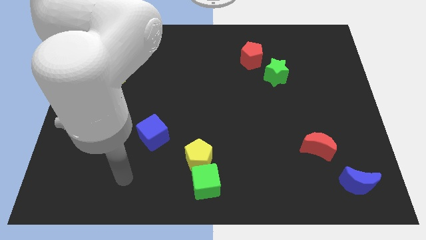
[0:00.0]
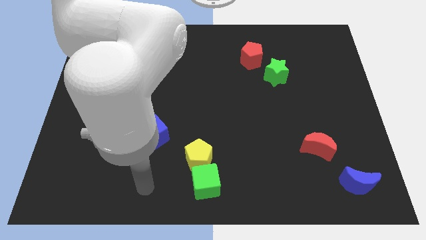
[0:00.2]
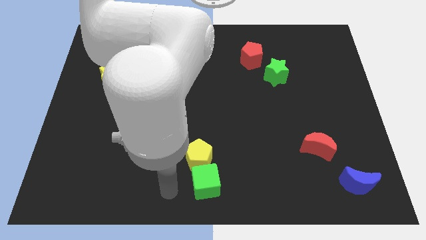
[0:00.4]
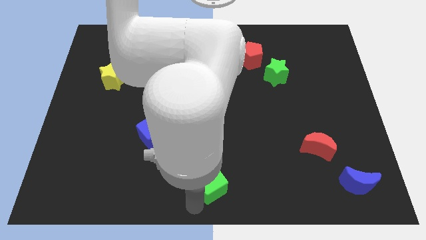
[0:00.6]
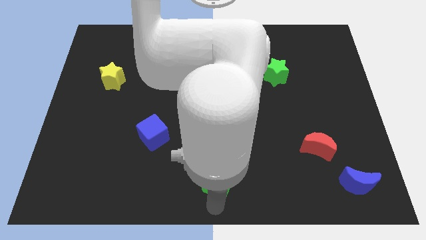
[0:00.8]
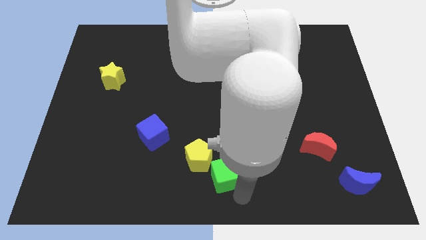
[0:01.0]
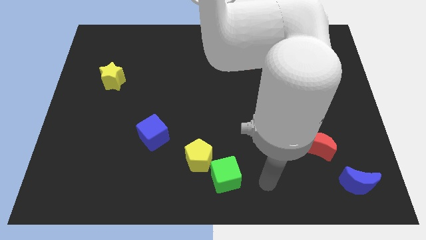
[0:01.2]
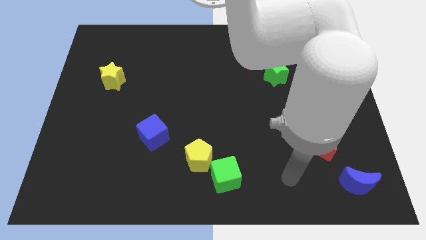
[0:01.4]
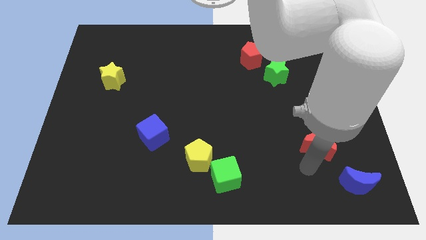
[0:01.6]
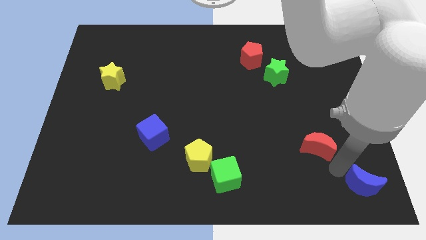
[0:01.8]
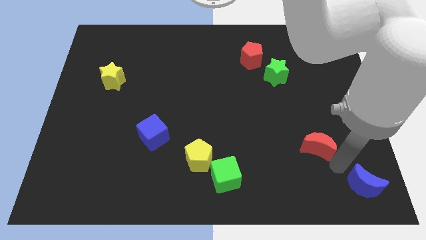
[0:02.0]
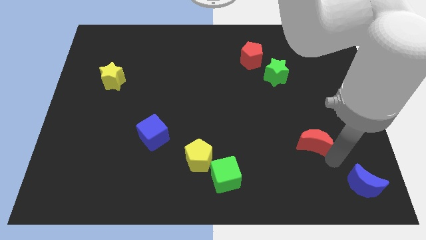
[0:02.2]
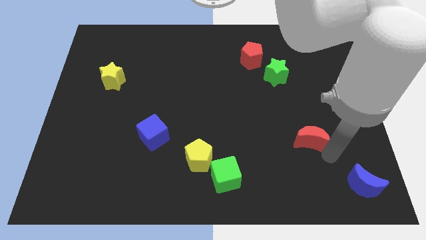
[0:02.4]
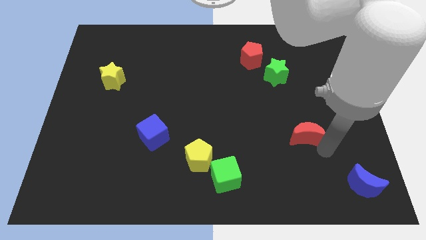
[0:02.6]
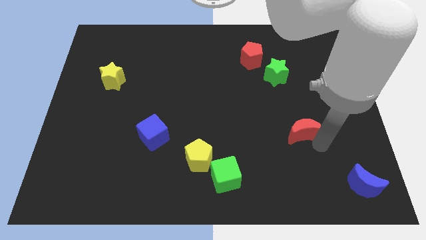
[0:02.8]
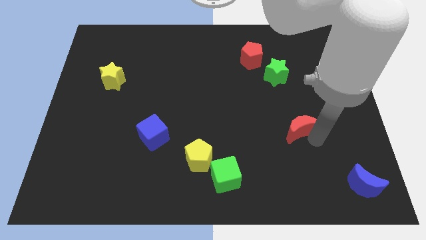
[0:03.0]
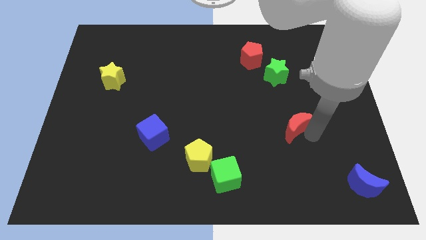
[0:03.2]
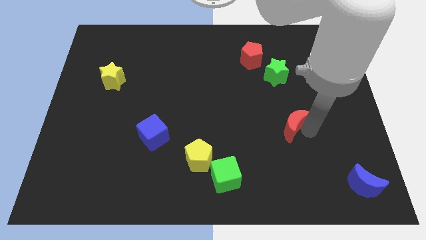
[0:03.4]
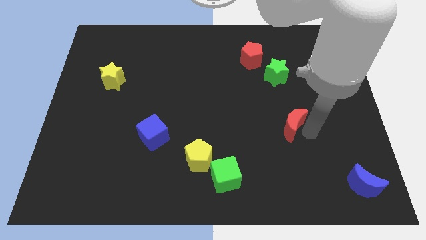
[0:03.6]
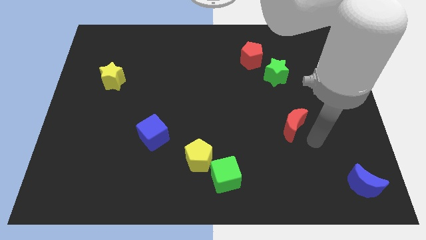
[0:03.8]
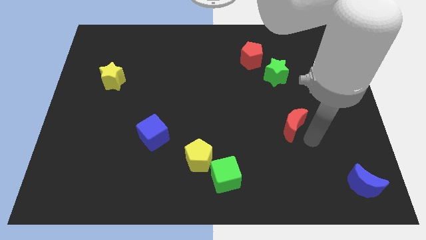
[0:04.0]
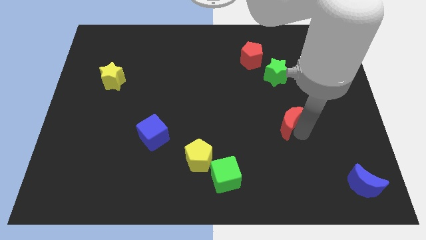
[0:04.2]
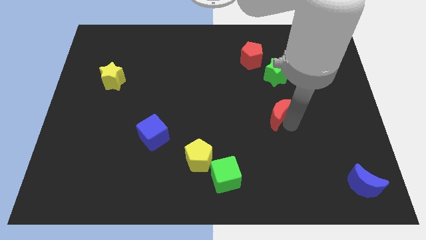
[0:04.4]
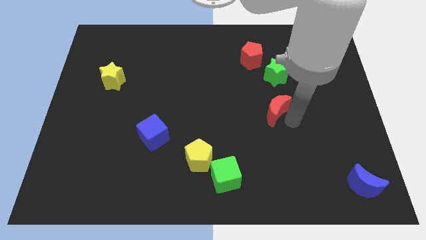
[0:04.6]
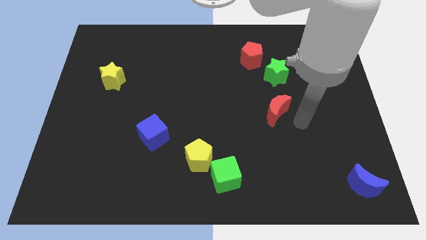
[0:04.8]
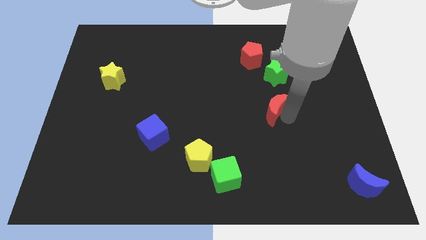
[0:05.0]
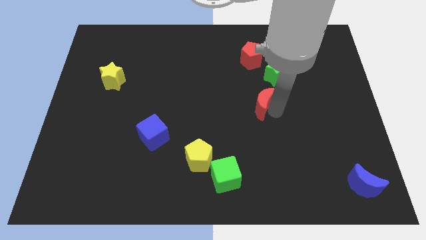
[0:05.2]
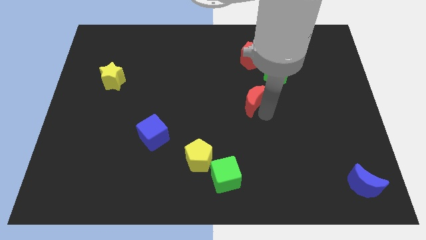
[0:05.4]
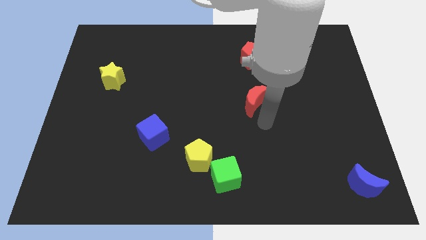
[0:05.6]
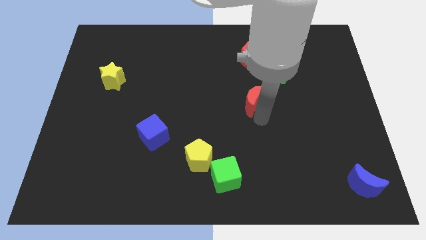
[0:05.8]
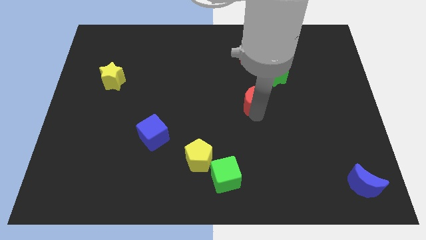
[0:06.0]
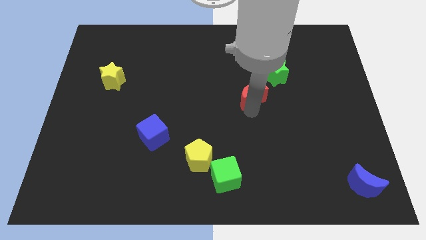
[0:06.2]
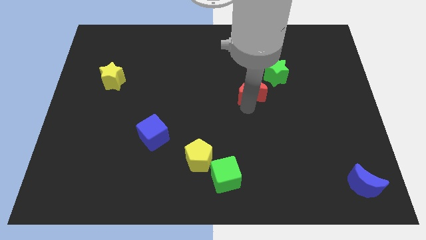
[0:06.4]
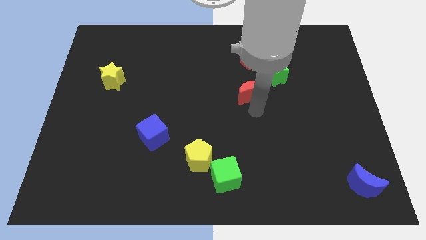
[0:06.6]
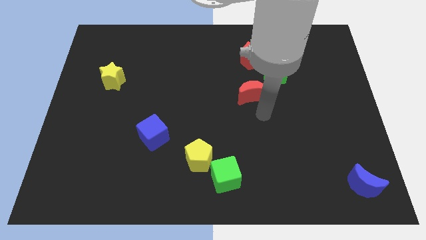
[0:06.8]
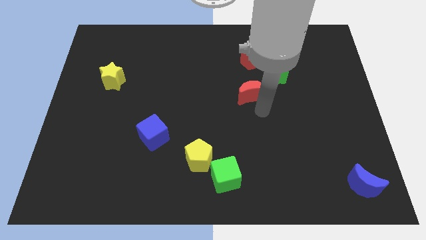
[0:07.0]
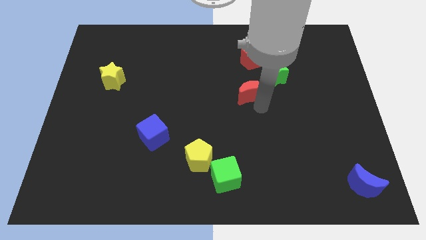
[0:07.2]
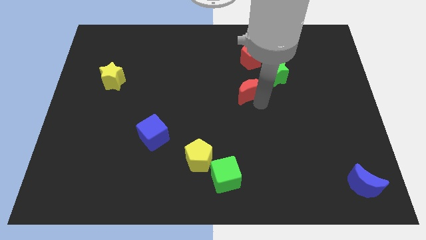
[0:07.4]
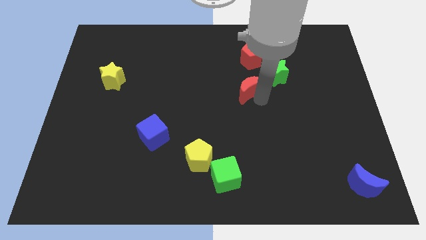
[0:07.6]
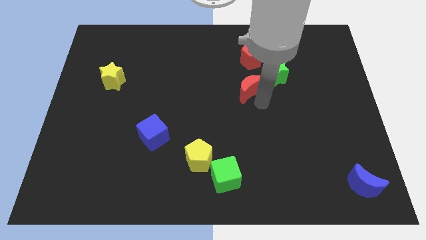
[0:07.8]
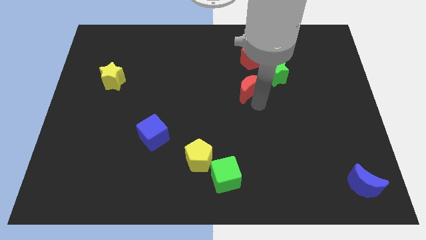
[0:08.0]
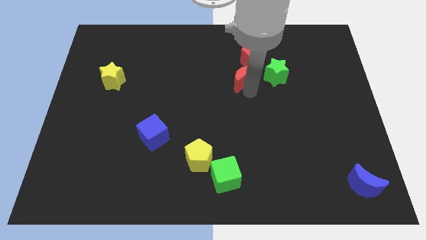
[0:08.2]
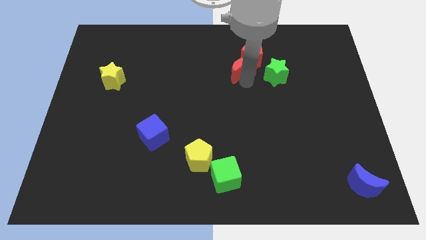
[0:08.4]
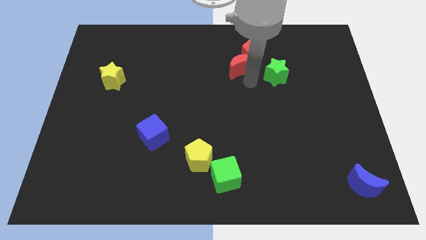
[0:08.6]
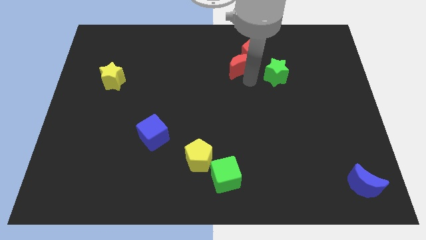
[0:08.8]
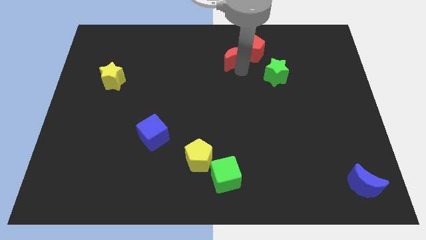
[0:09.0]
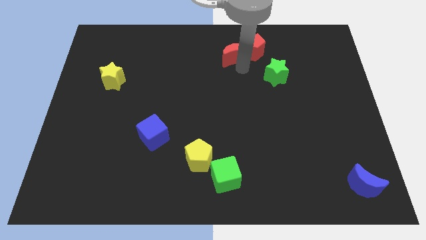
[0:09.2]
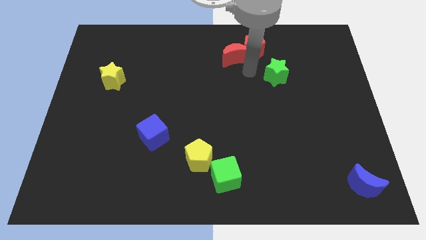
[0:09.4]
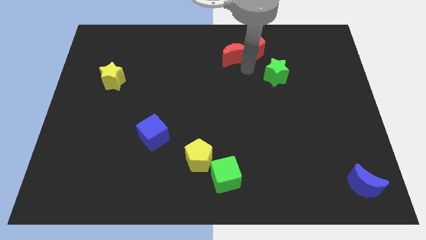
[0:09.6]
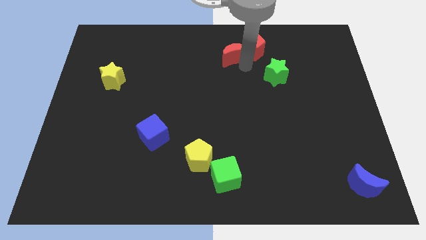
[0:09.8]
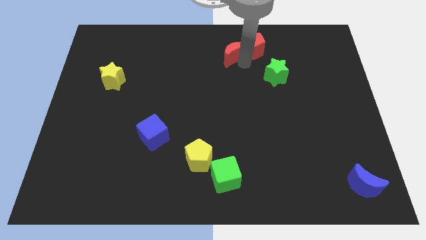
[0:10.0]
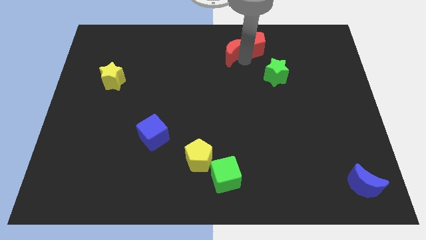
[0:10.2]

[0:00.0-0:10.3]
put the red moon to the towards your base

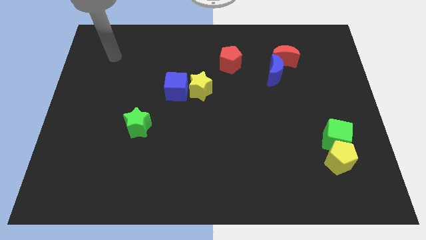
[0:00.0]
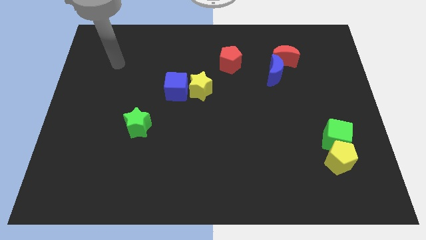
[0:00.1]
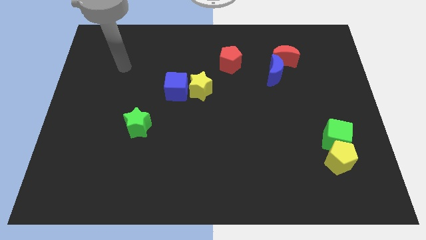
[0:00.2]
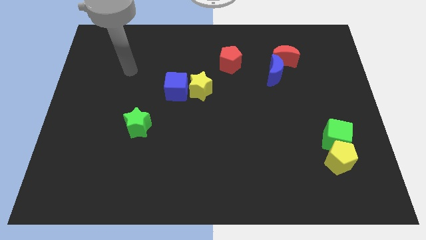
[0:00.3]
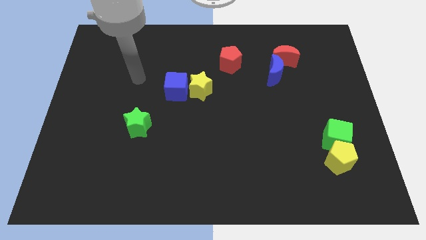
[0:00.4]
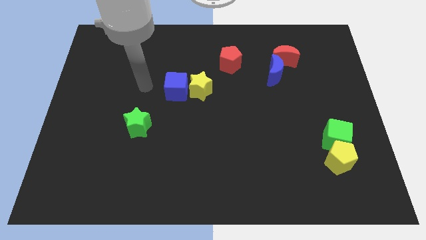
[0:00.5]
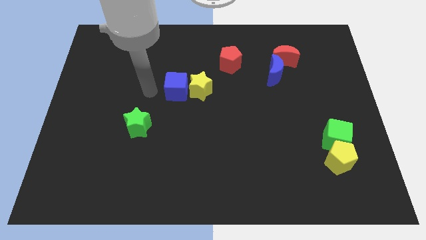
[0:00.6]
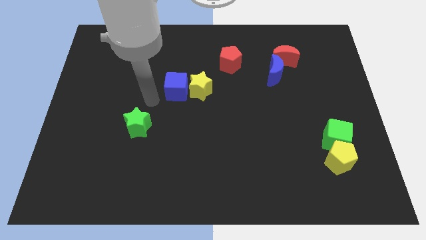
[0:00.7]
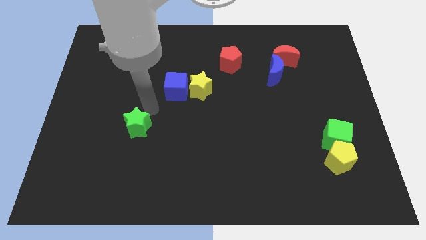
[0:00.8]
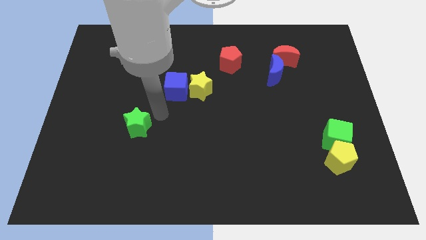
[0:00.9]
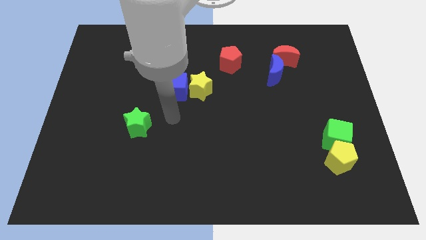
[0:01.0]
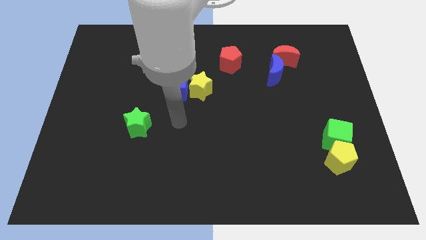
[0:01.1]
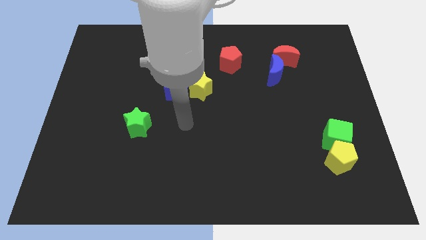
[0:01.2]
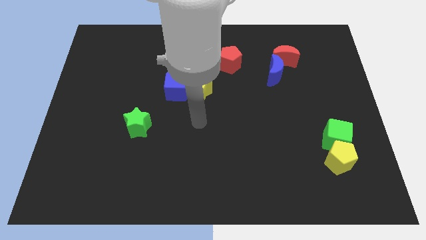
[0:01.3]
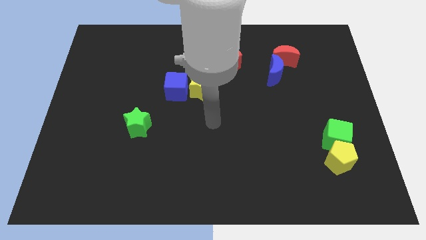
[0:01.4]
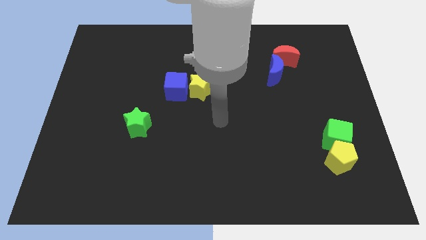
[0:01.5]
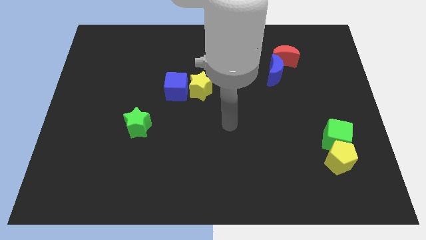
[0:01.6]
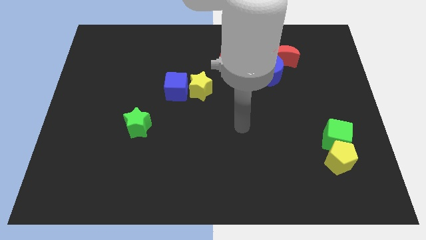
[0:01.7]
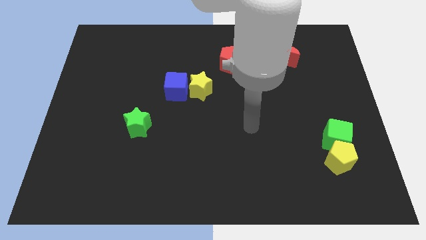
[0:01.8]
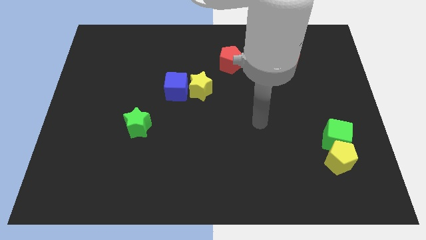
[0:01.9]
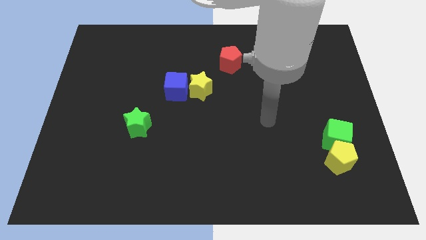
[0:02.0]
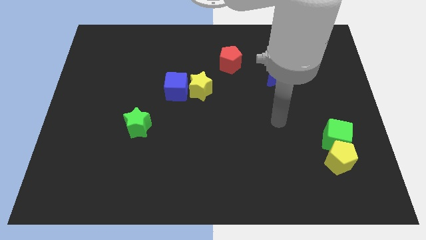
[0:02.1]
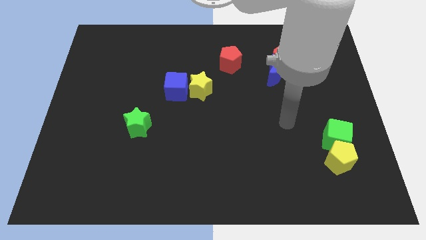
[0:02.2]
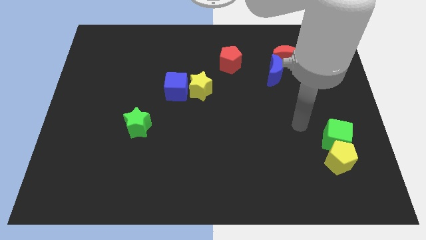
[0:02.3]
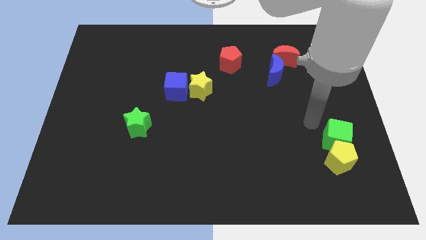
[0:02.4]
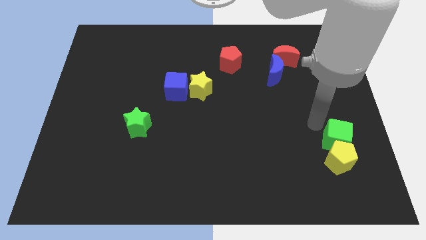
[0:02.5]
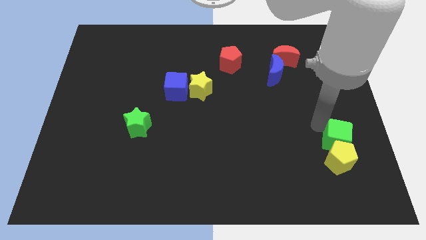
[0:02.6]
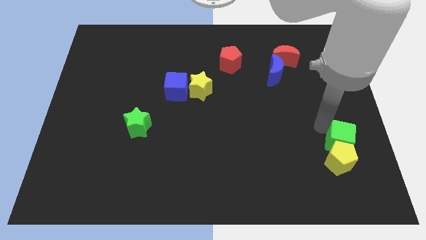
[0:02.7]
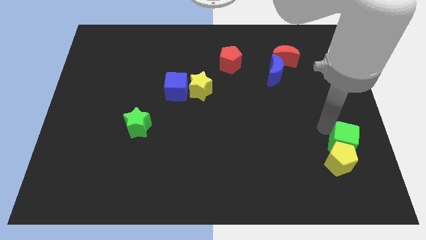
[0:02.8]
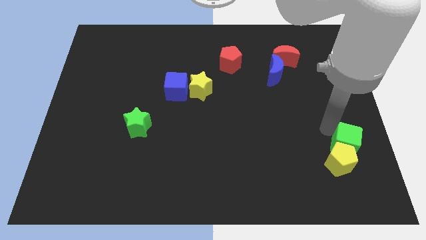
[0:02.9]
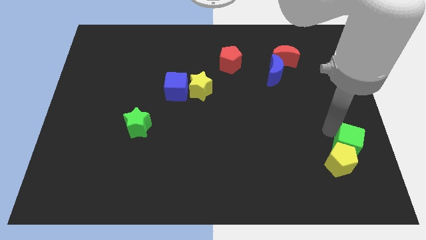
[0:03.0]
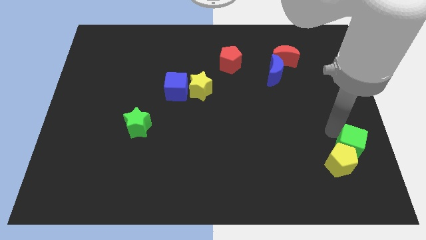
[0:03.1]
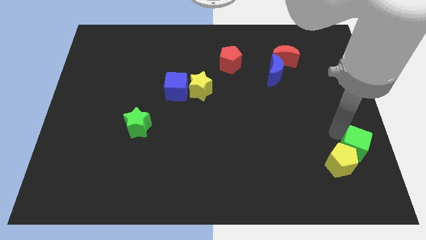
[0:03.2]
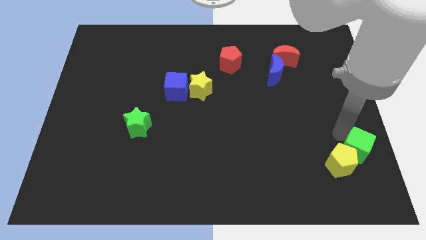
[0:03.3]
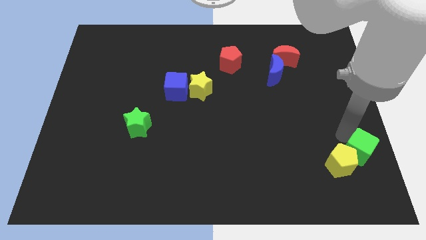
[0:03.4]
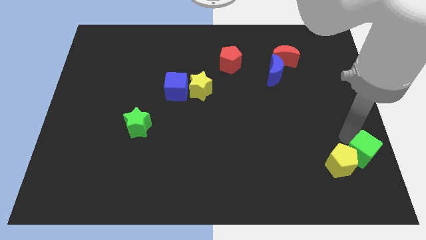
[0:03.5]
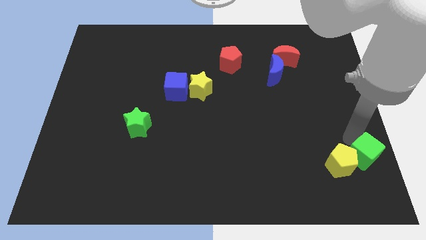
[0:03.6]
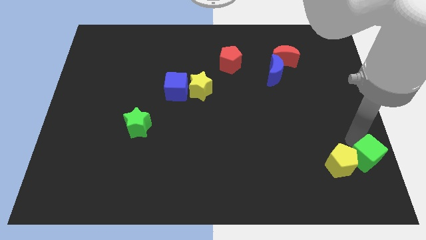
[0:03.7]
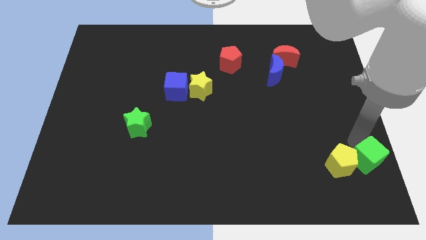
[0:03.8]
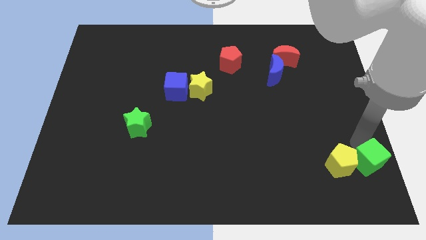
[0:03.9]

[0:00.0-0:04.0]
slide the green cube to the bottom right of the board
